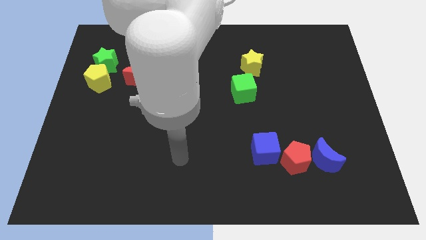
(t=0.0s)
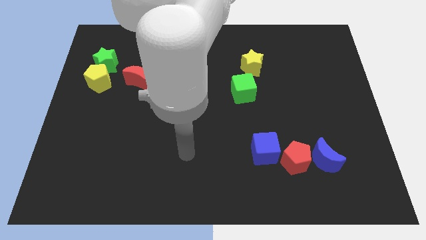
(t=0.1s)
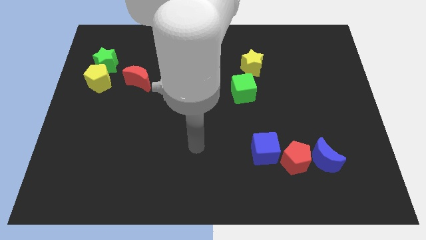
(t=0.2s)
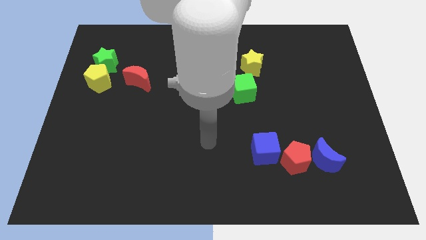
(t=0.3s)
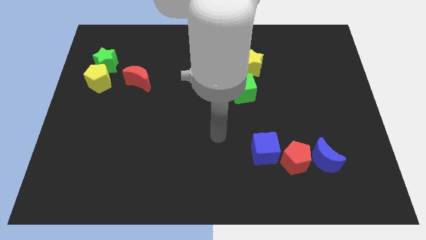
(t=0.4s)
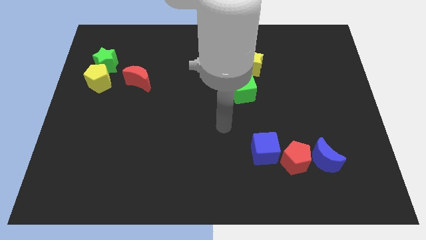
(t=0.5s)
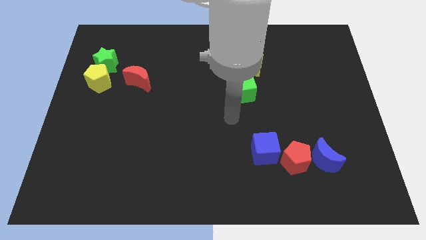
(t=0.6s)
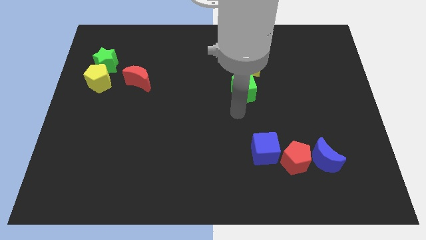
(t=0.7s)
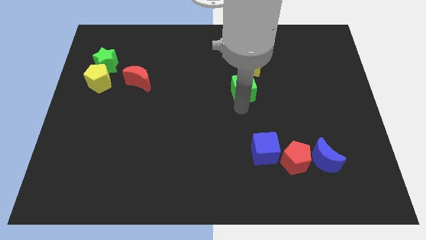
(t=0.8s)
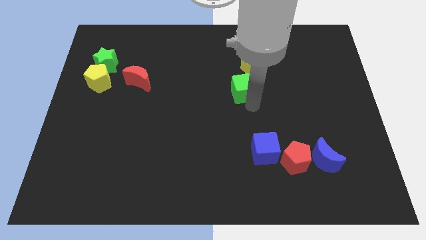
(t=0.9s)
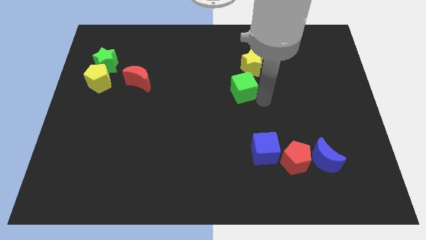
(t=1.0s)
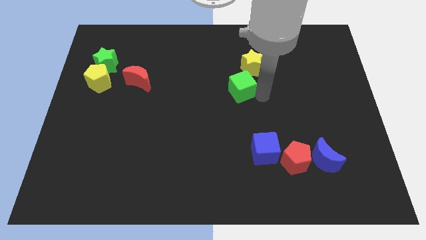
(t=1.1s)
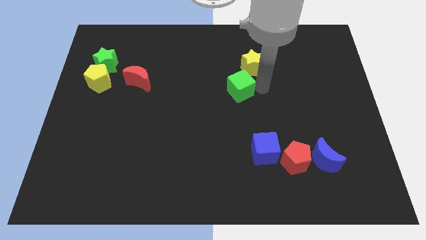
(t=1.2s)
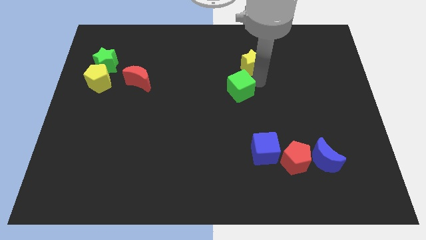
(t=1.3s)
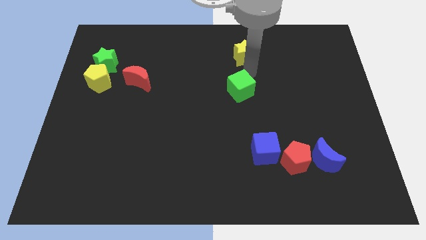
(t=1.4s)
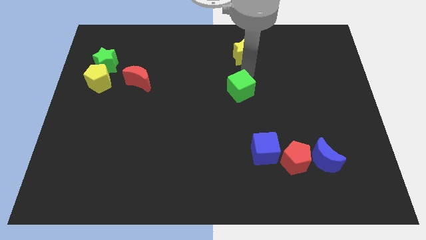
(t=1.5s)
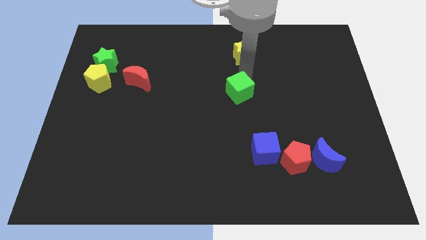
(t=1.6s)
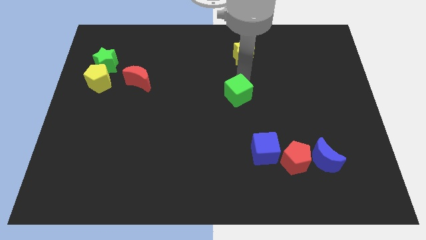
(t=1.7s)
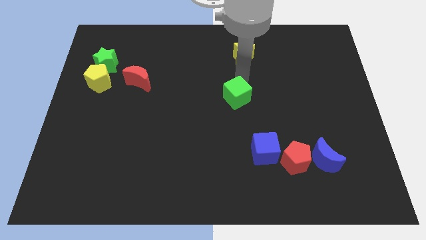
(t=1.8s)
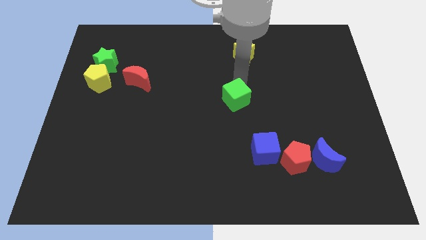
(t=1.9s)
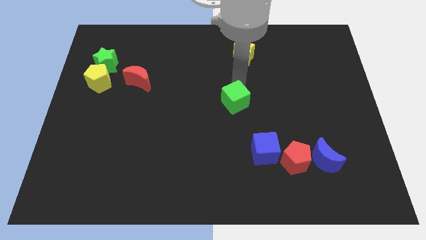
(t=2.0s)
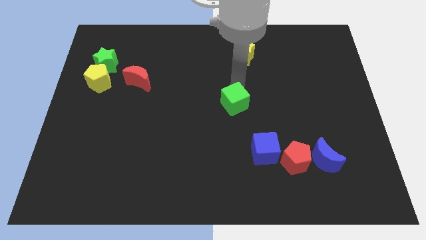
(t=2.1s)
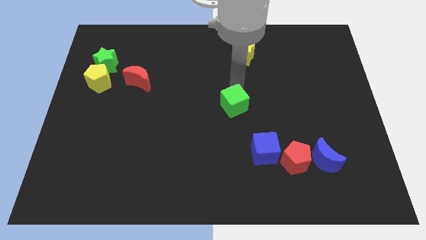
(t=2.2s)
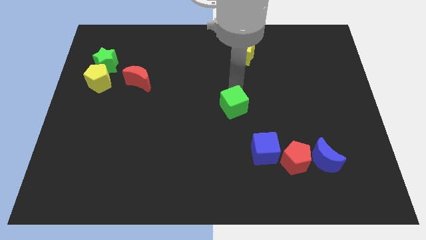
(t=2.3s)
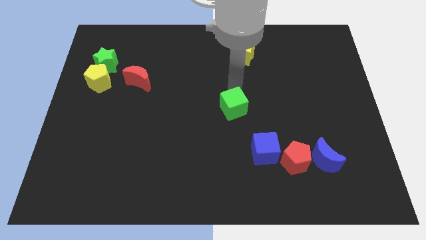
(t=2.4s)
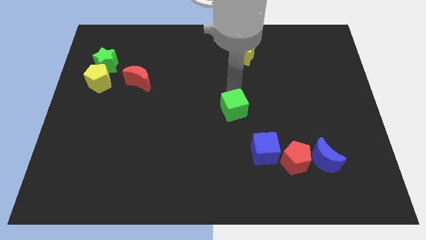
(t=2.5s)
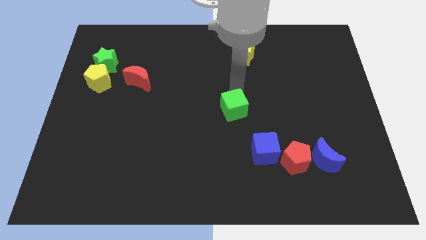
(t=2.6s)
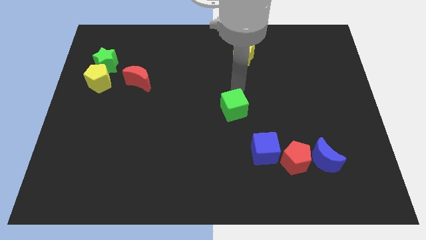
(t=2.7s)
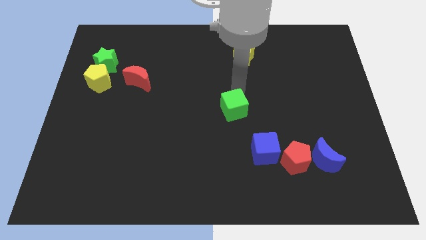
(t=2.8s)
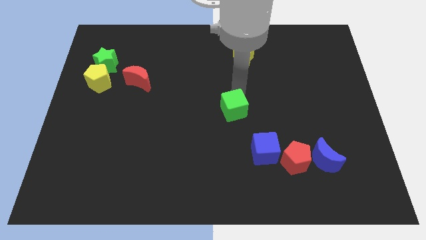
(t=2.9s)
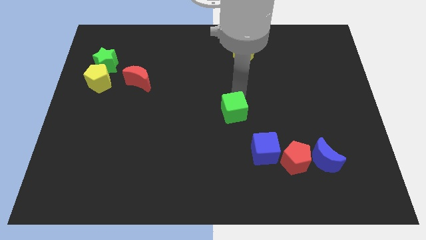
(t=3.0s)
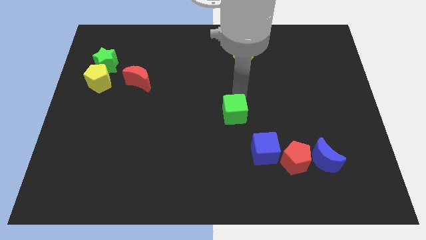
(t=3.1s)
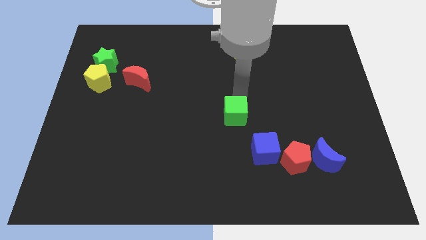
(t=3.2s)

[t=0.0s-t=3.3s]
slightly move the green cube down

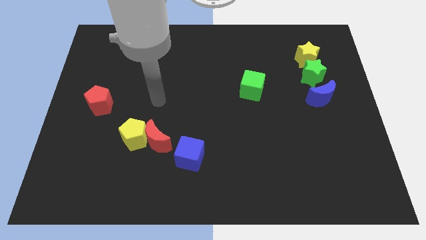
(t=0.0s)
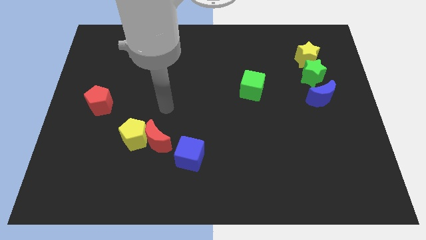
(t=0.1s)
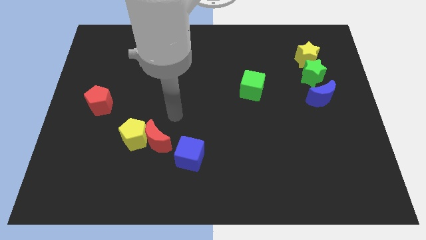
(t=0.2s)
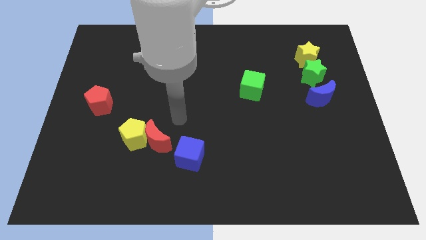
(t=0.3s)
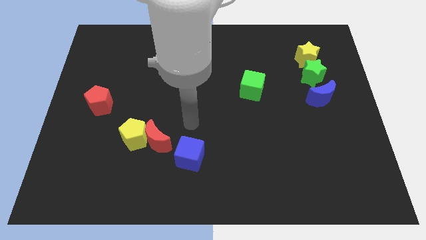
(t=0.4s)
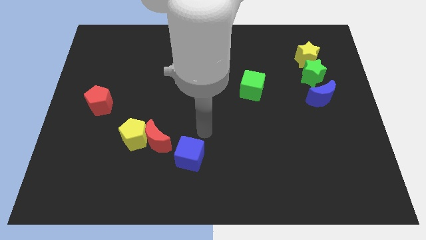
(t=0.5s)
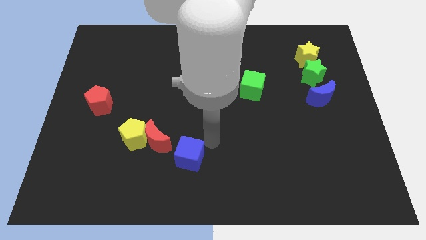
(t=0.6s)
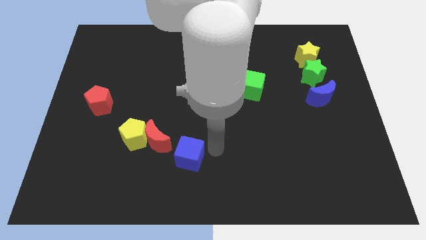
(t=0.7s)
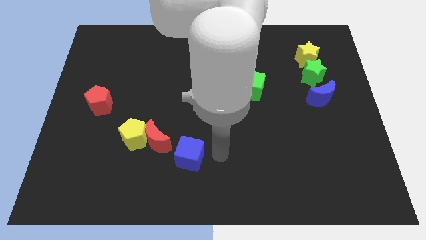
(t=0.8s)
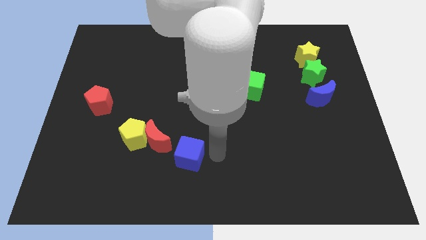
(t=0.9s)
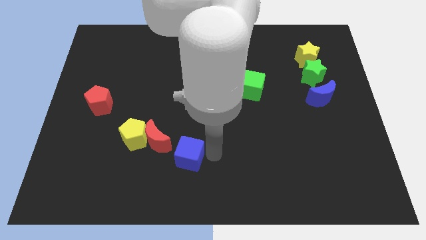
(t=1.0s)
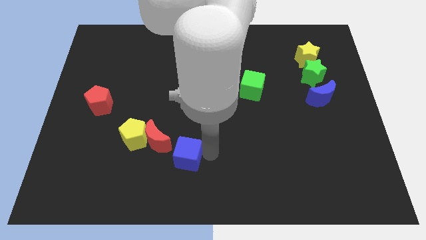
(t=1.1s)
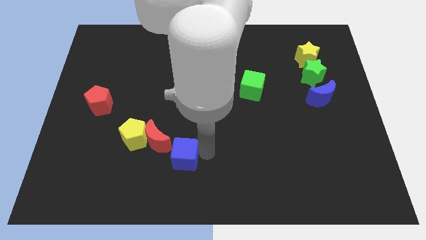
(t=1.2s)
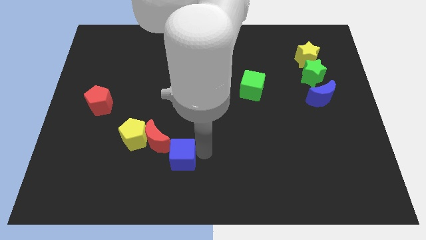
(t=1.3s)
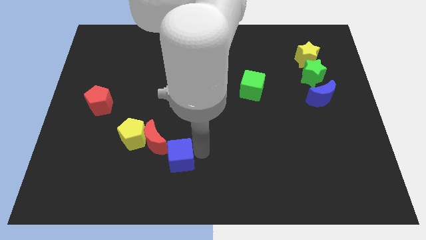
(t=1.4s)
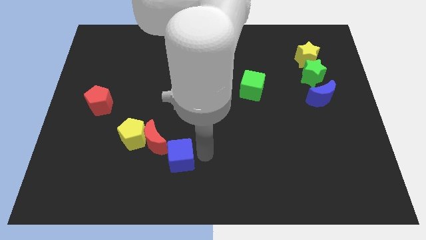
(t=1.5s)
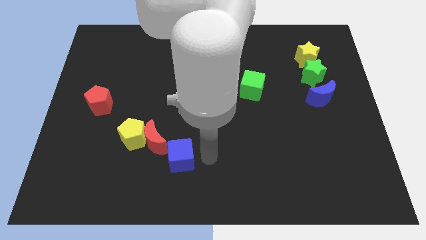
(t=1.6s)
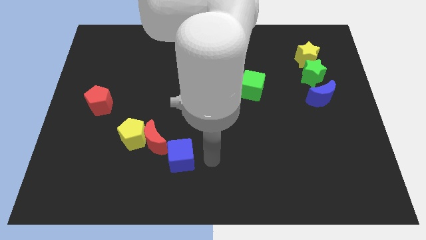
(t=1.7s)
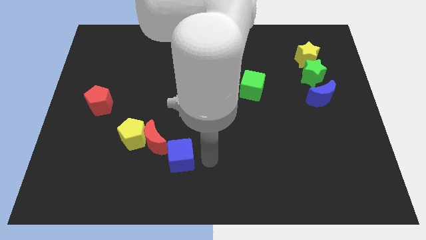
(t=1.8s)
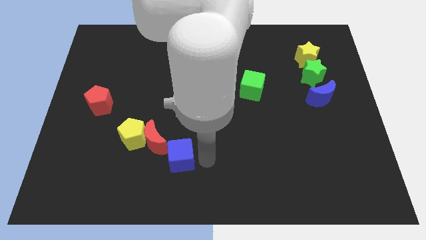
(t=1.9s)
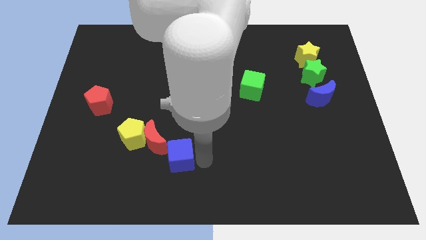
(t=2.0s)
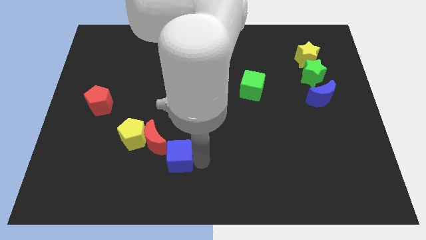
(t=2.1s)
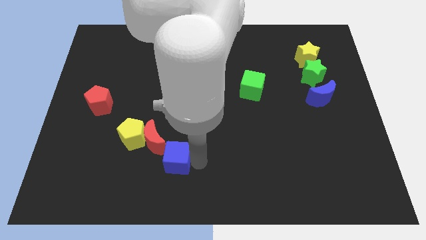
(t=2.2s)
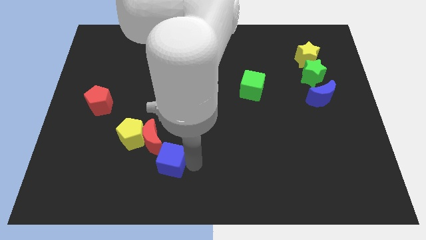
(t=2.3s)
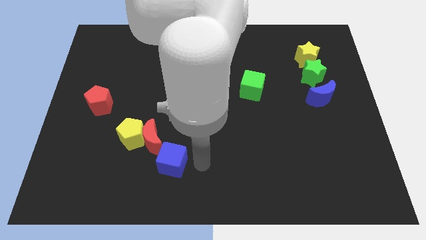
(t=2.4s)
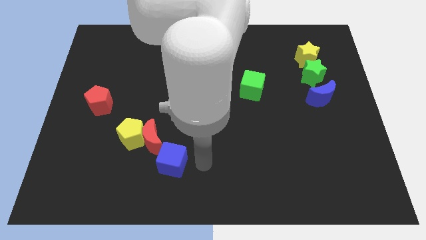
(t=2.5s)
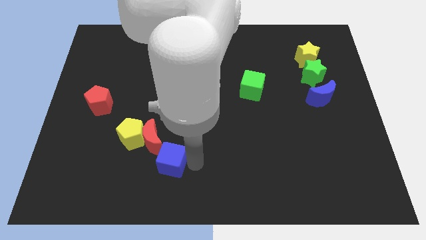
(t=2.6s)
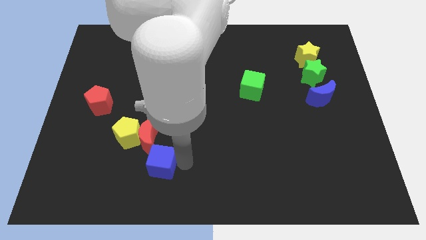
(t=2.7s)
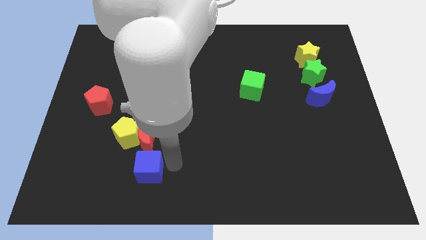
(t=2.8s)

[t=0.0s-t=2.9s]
push the blue cube a little bit to the left

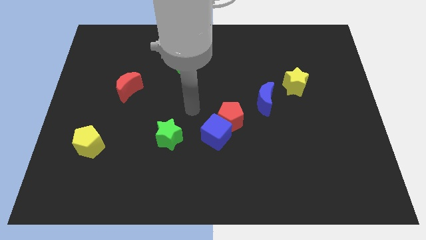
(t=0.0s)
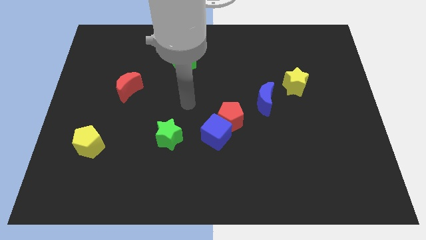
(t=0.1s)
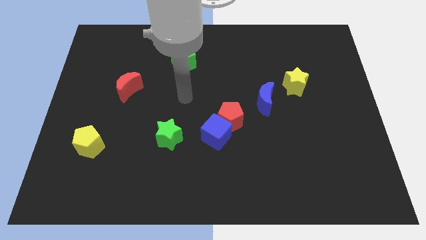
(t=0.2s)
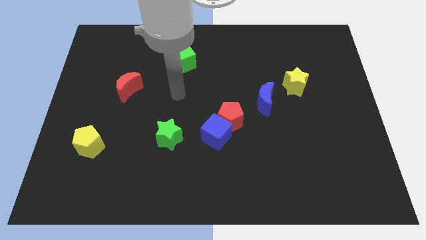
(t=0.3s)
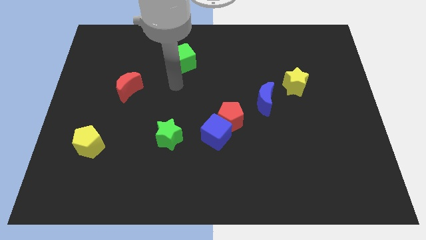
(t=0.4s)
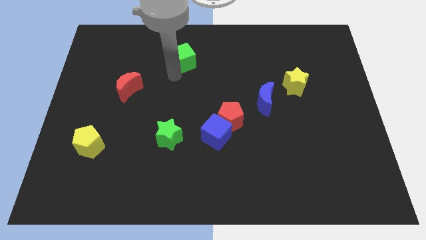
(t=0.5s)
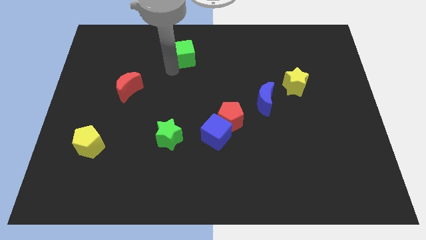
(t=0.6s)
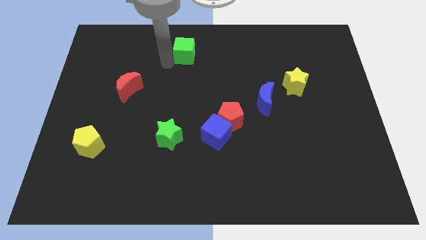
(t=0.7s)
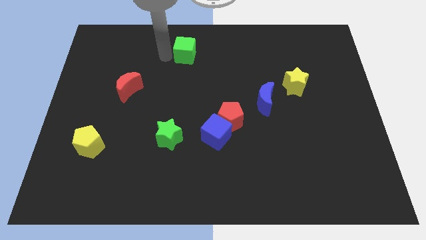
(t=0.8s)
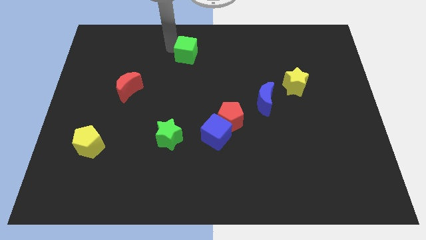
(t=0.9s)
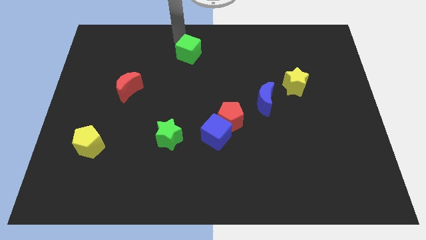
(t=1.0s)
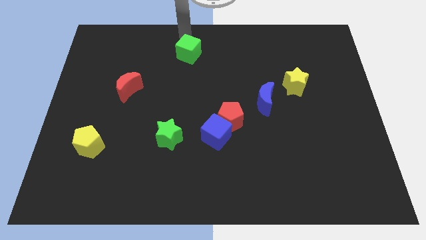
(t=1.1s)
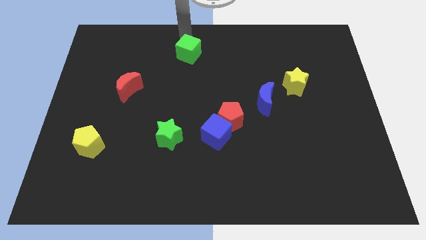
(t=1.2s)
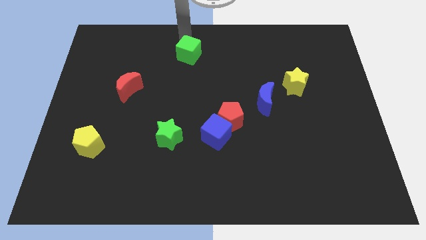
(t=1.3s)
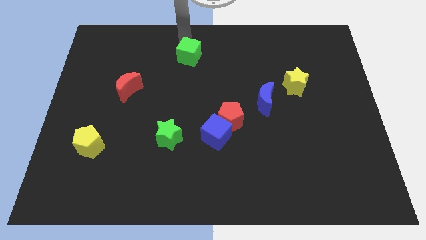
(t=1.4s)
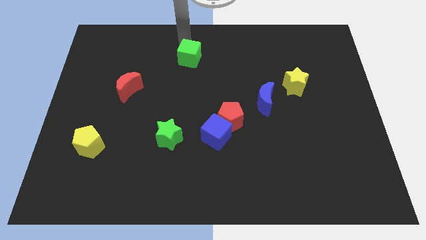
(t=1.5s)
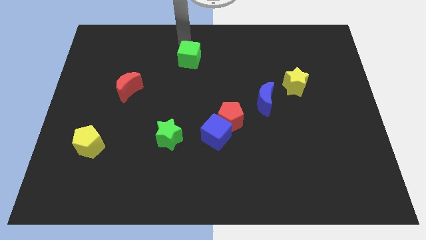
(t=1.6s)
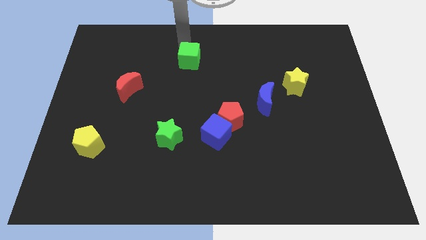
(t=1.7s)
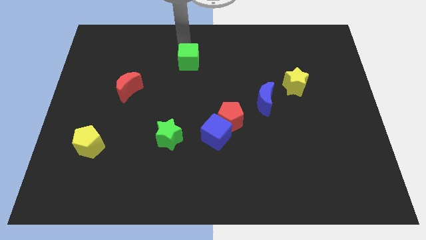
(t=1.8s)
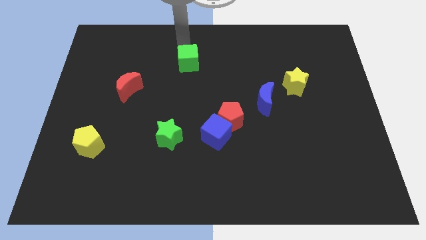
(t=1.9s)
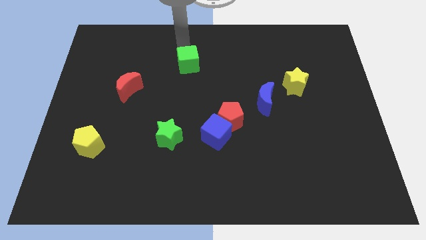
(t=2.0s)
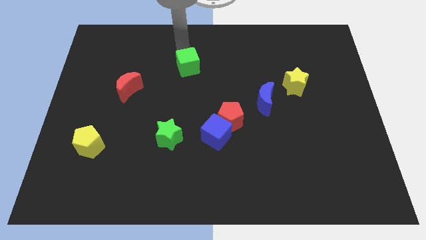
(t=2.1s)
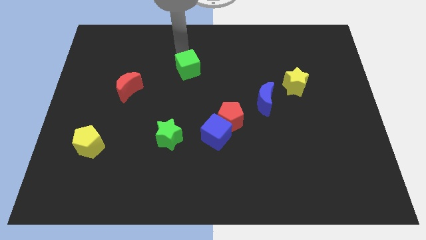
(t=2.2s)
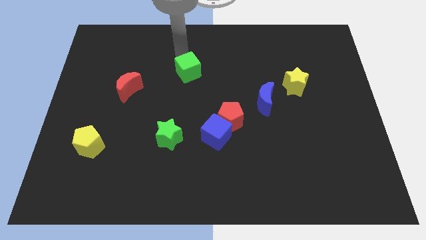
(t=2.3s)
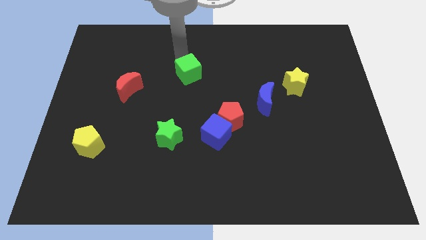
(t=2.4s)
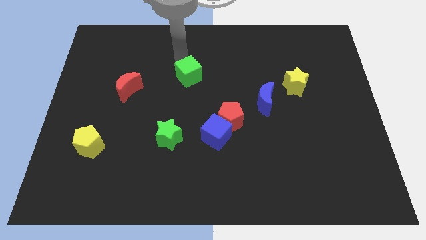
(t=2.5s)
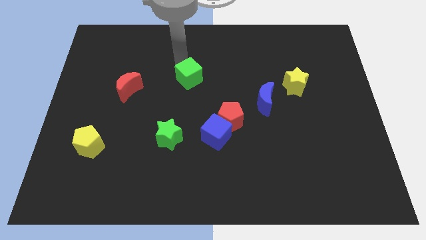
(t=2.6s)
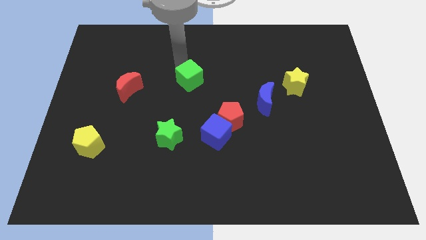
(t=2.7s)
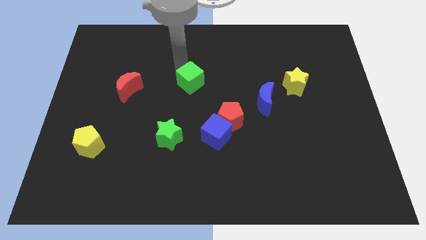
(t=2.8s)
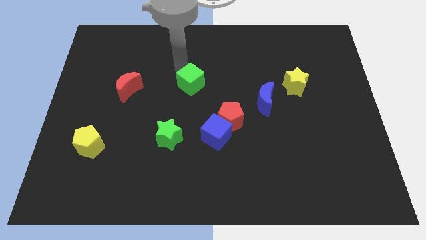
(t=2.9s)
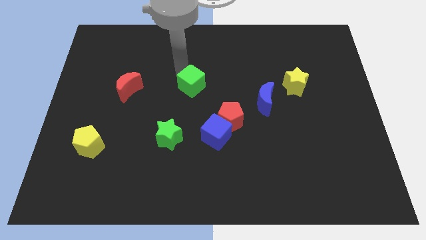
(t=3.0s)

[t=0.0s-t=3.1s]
push the green cube somewhat downwards and to the right
